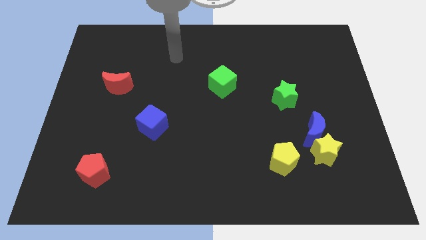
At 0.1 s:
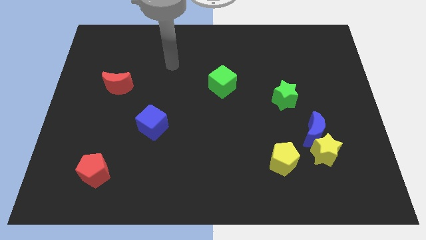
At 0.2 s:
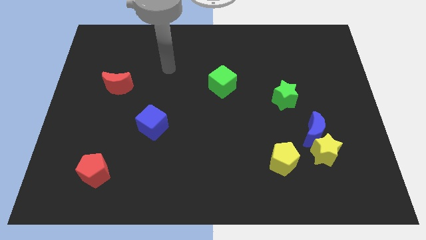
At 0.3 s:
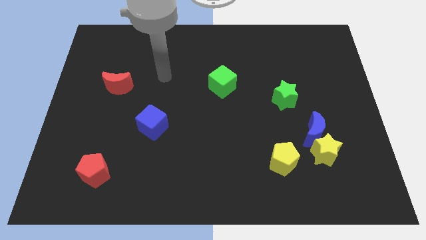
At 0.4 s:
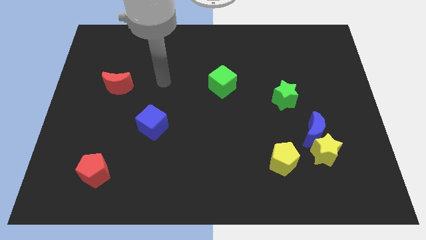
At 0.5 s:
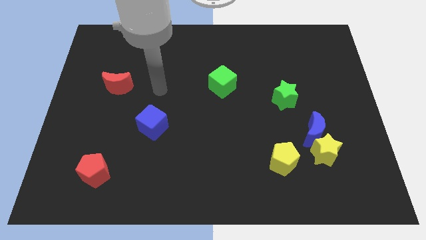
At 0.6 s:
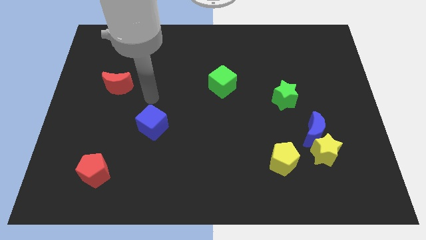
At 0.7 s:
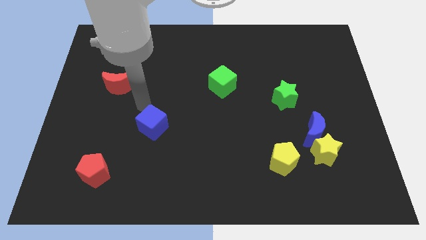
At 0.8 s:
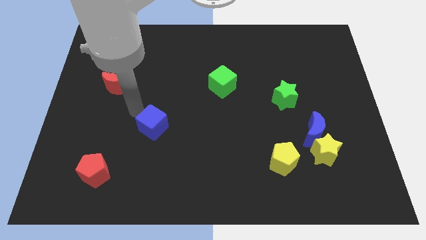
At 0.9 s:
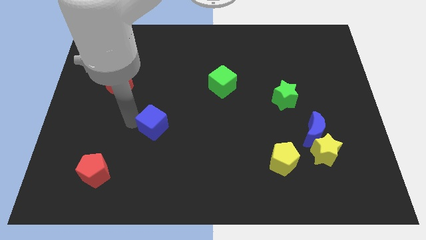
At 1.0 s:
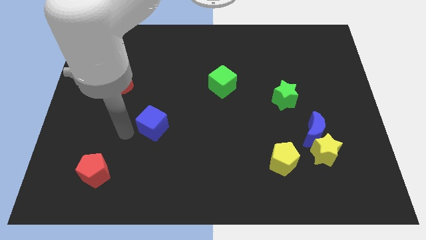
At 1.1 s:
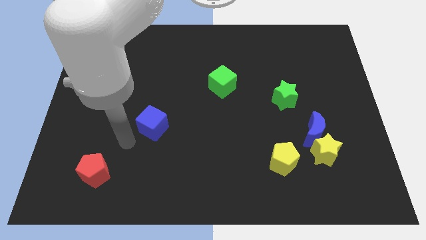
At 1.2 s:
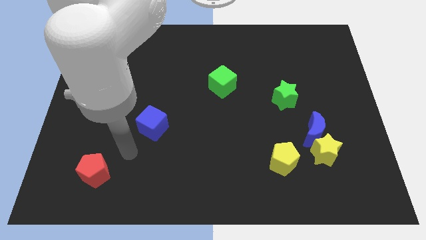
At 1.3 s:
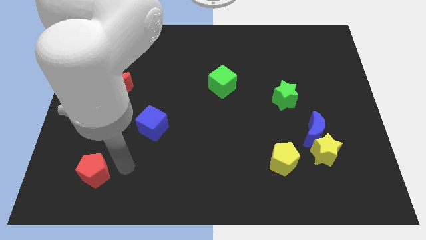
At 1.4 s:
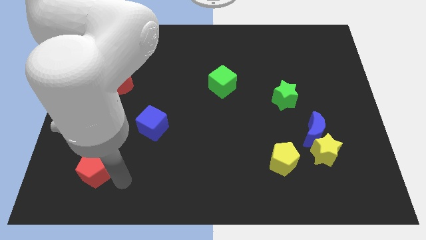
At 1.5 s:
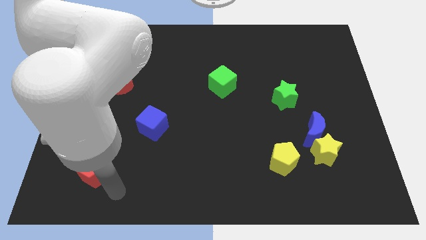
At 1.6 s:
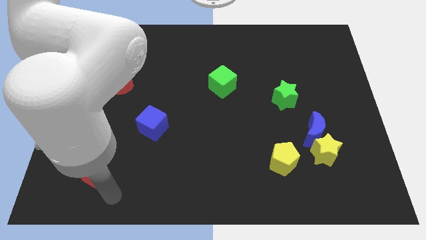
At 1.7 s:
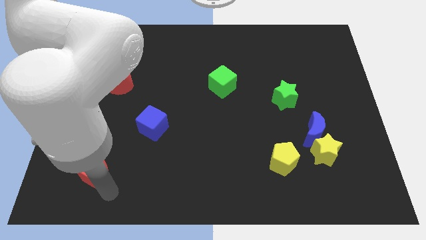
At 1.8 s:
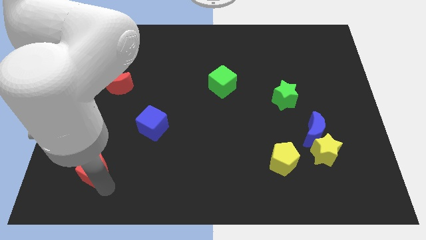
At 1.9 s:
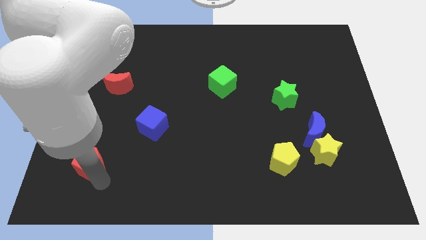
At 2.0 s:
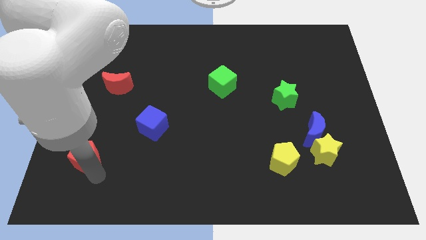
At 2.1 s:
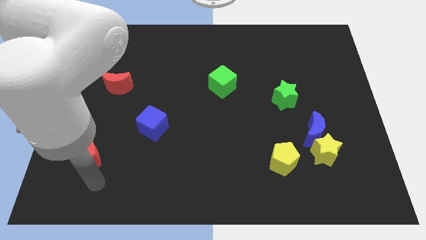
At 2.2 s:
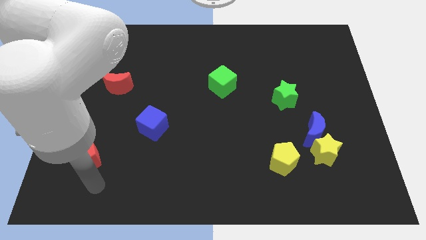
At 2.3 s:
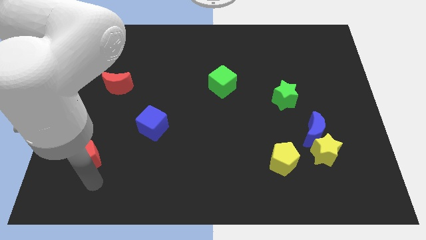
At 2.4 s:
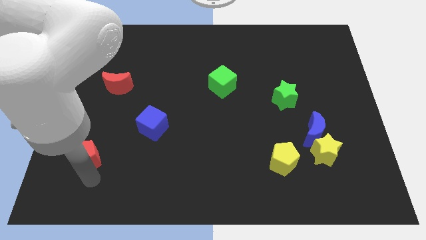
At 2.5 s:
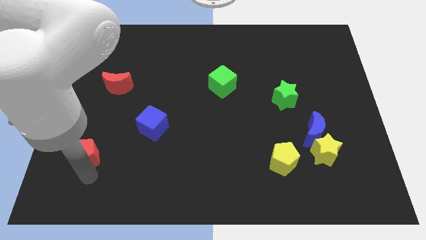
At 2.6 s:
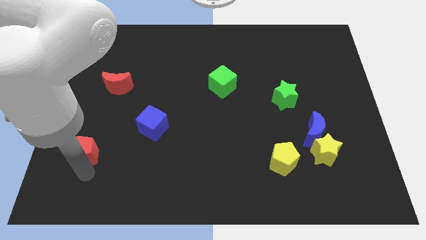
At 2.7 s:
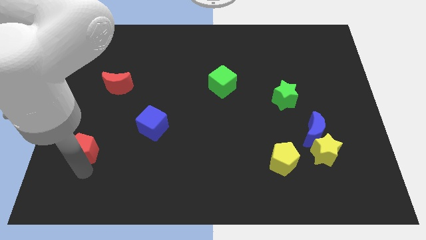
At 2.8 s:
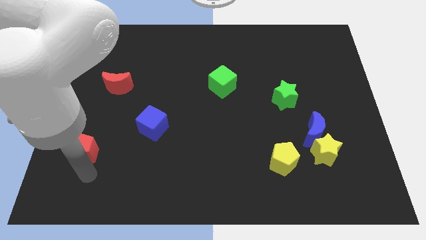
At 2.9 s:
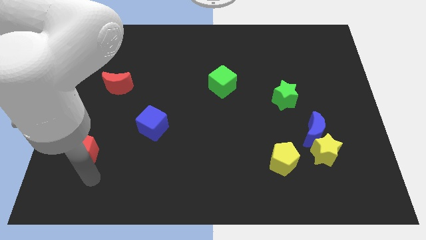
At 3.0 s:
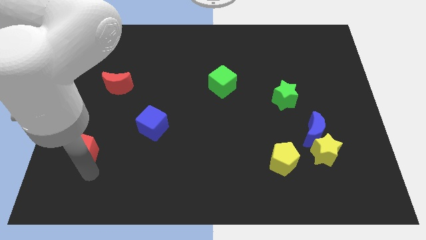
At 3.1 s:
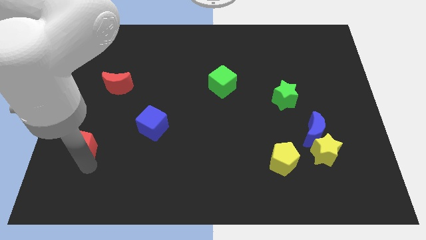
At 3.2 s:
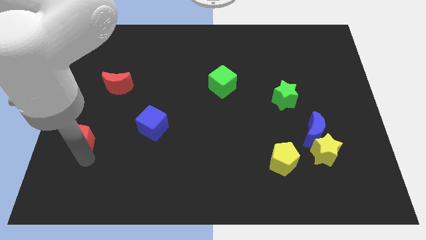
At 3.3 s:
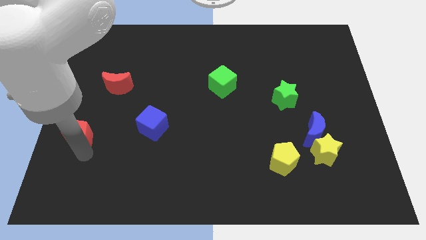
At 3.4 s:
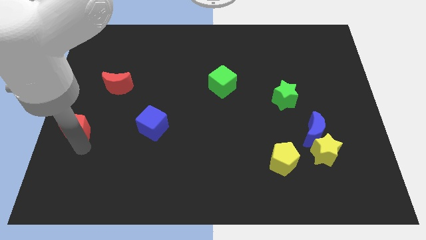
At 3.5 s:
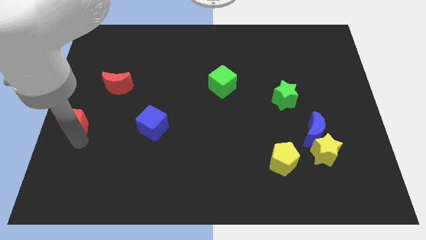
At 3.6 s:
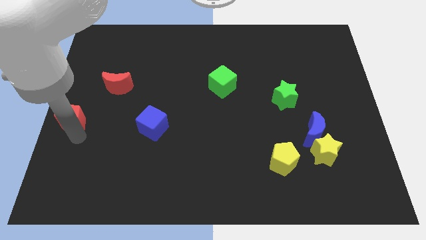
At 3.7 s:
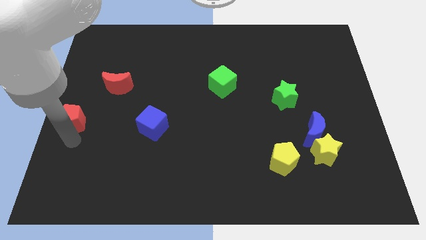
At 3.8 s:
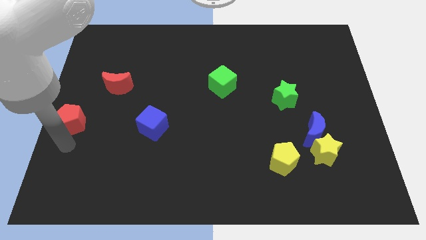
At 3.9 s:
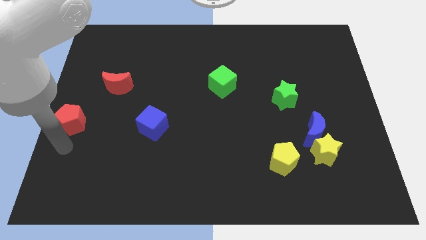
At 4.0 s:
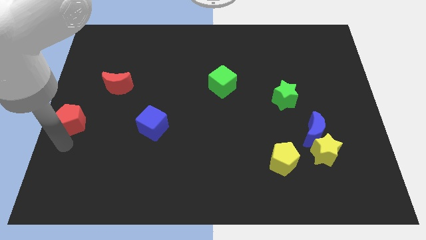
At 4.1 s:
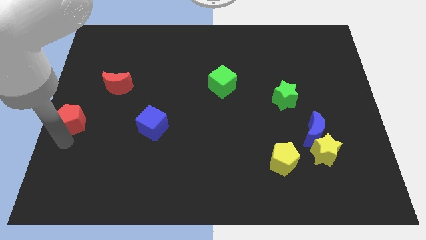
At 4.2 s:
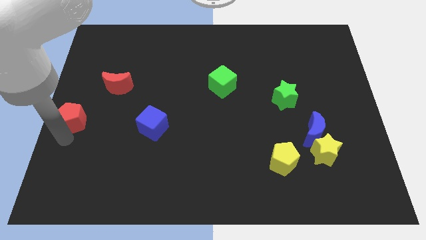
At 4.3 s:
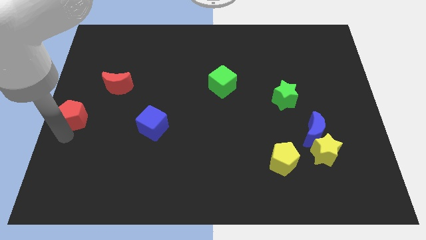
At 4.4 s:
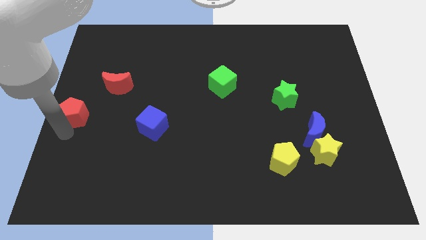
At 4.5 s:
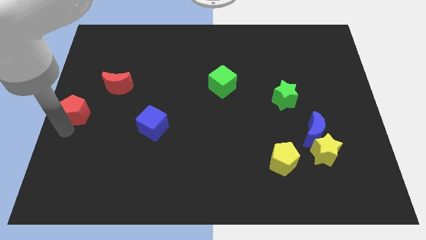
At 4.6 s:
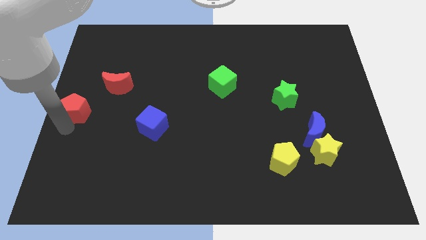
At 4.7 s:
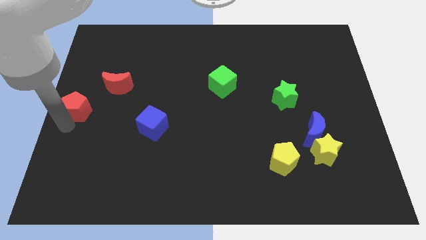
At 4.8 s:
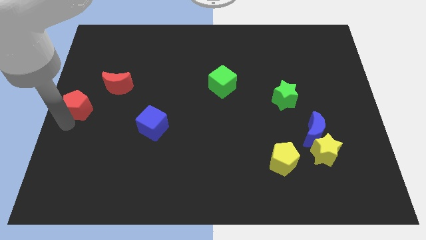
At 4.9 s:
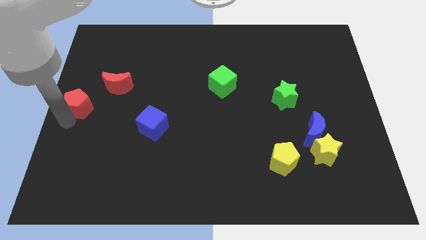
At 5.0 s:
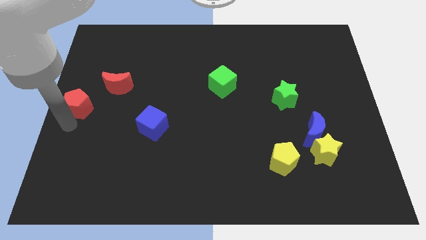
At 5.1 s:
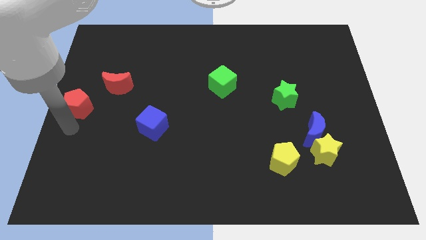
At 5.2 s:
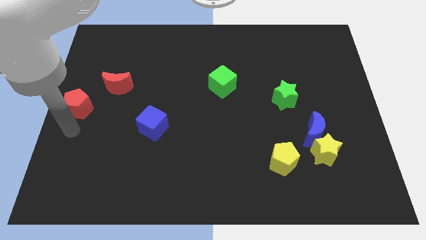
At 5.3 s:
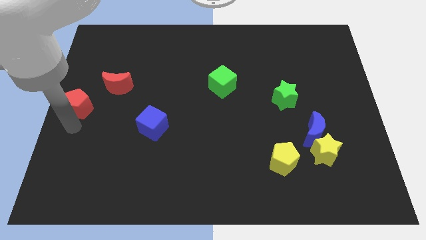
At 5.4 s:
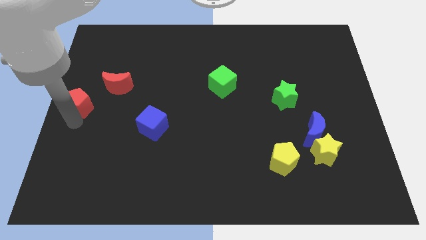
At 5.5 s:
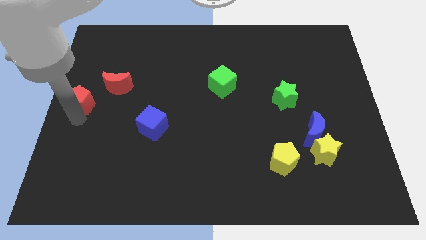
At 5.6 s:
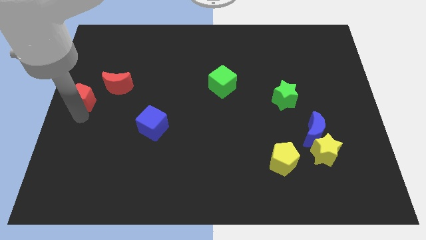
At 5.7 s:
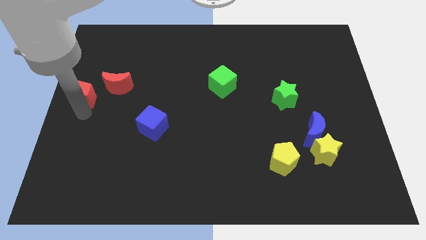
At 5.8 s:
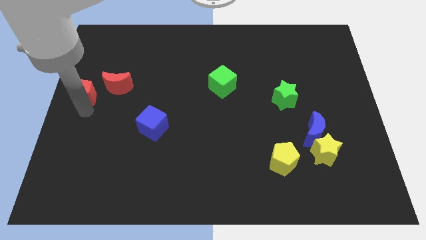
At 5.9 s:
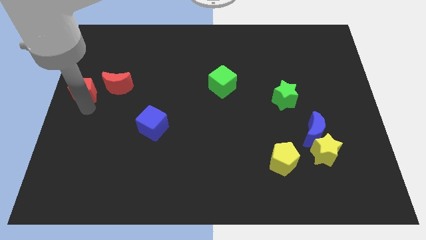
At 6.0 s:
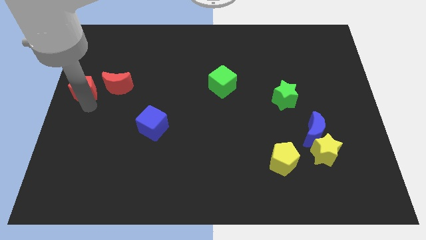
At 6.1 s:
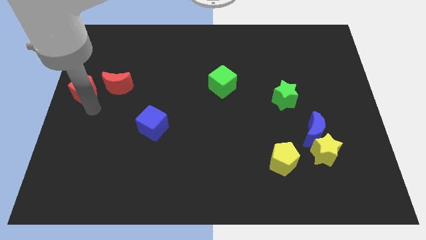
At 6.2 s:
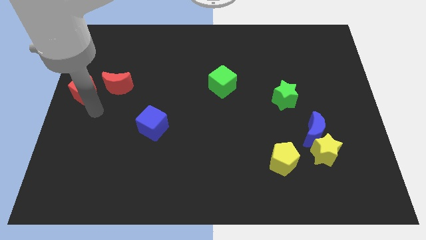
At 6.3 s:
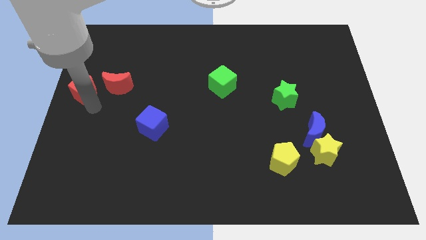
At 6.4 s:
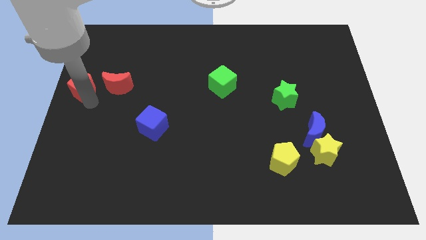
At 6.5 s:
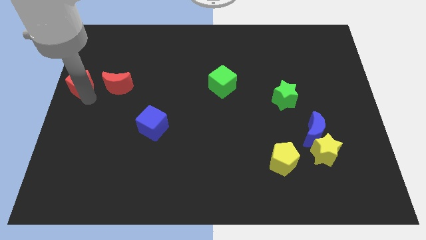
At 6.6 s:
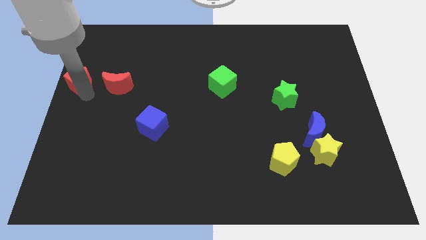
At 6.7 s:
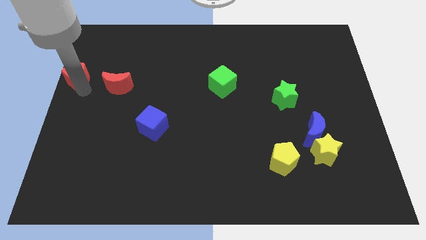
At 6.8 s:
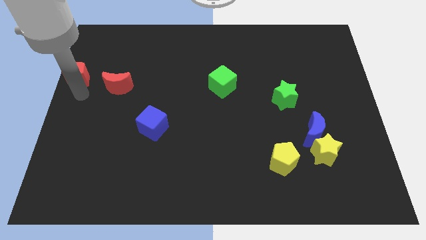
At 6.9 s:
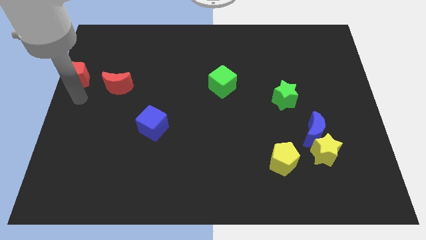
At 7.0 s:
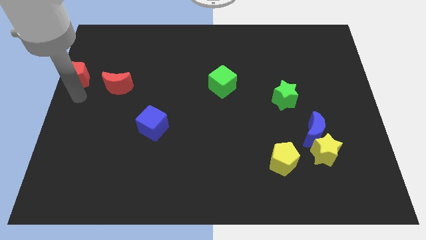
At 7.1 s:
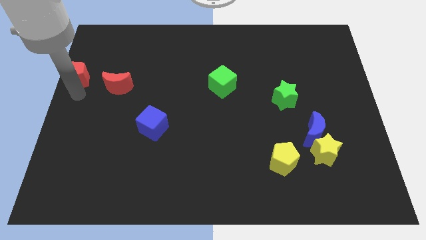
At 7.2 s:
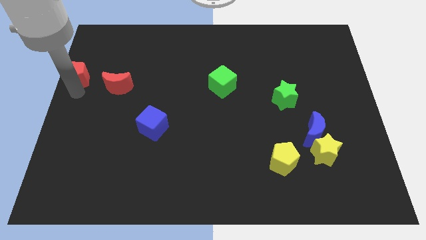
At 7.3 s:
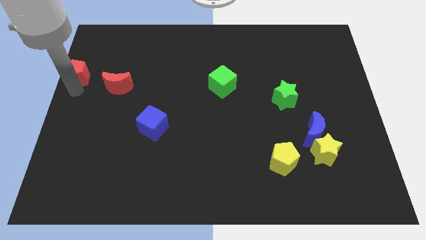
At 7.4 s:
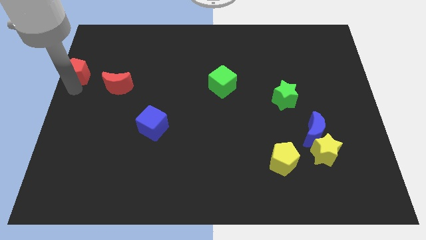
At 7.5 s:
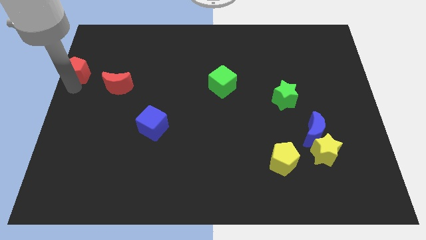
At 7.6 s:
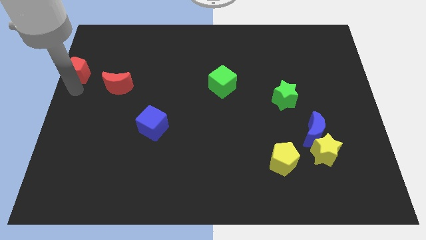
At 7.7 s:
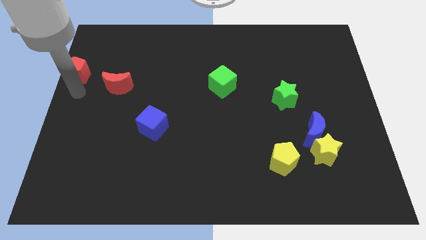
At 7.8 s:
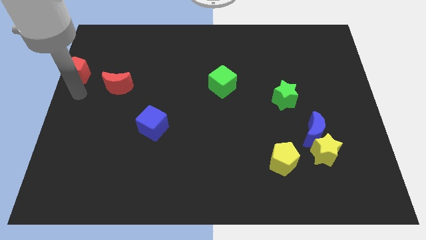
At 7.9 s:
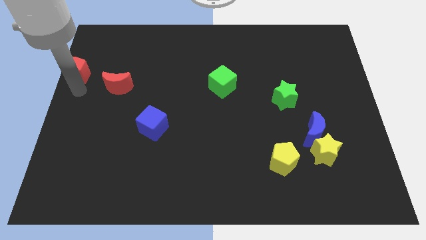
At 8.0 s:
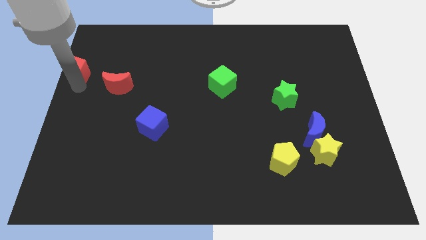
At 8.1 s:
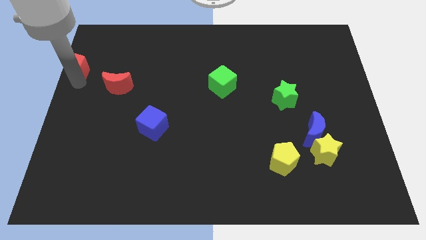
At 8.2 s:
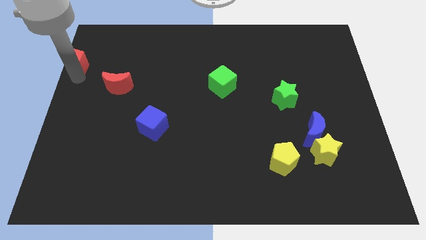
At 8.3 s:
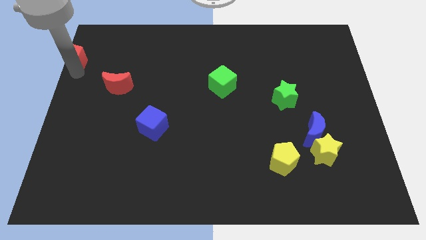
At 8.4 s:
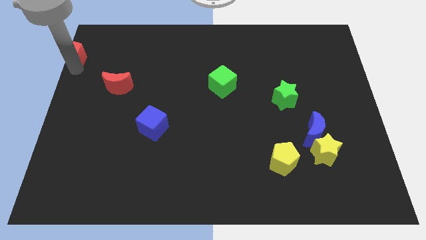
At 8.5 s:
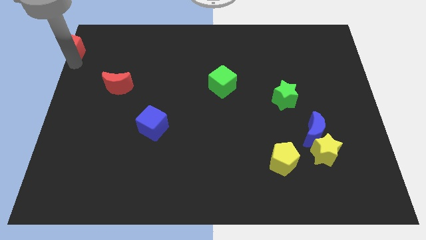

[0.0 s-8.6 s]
push the red pentagon to the top left of the board
